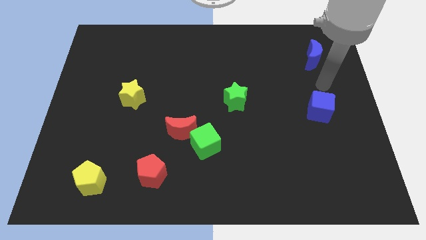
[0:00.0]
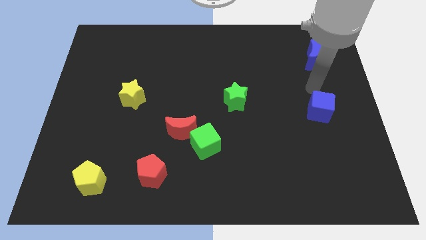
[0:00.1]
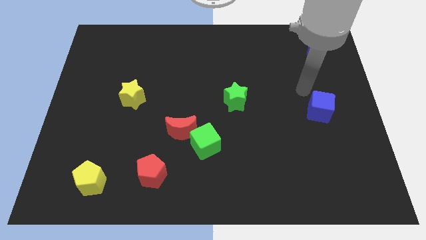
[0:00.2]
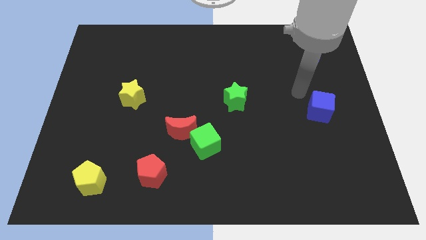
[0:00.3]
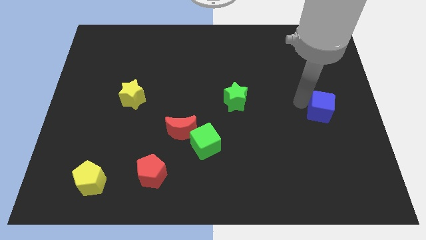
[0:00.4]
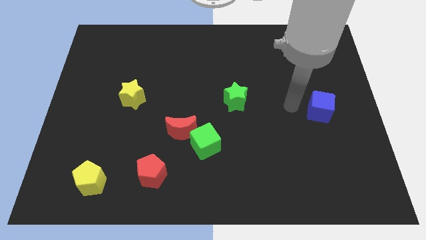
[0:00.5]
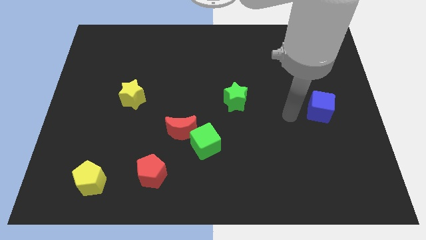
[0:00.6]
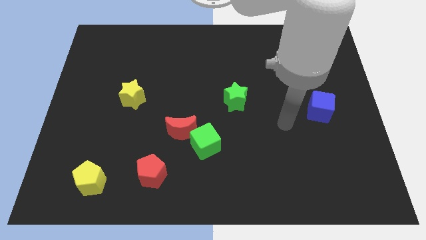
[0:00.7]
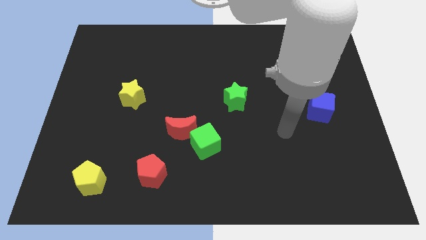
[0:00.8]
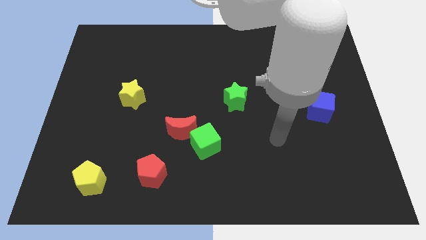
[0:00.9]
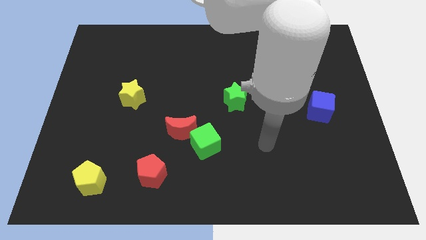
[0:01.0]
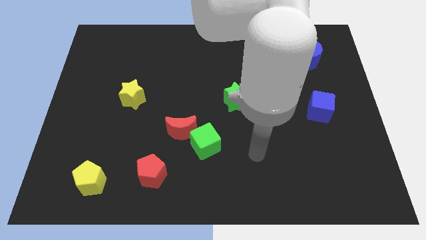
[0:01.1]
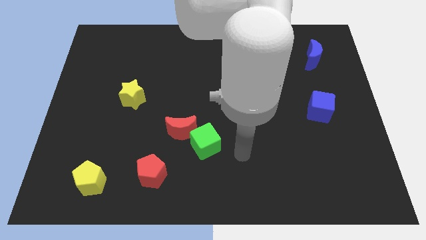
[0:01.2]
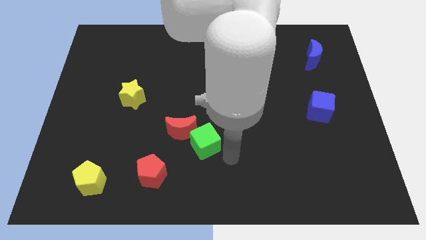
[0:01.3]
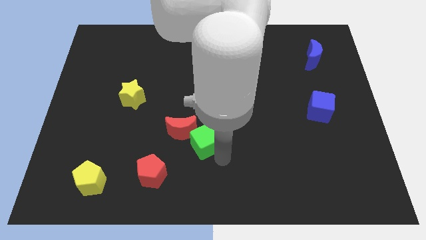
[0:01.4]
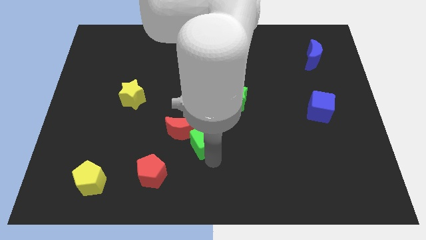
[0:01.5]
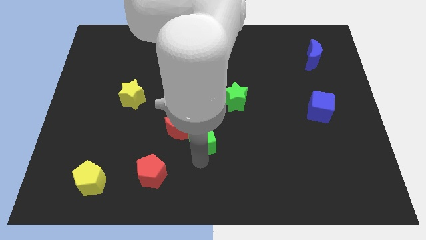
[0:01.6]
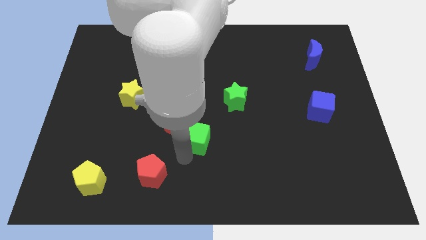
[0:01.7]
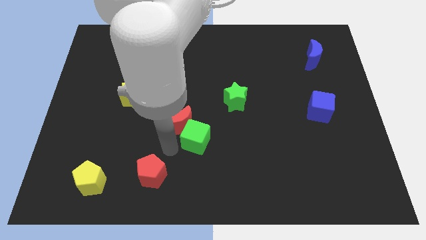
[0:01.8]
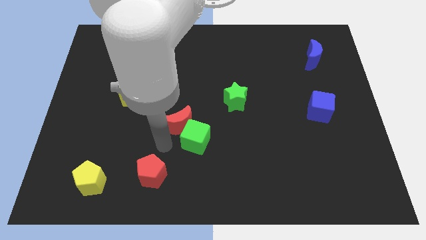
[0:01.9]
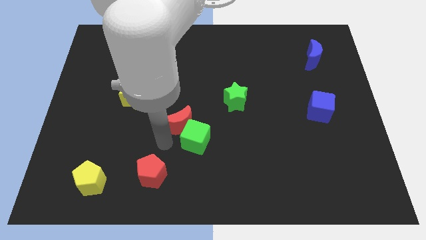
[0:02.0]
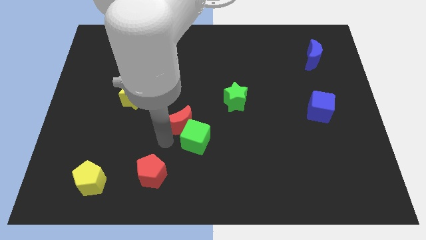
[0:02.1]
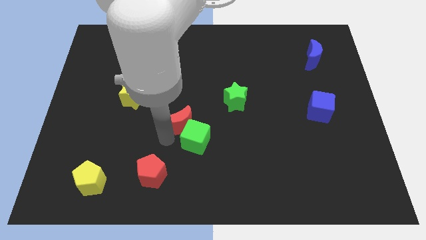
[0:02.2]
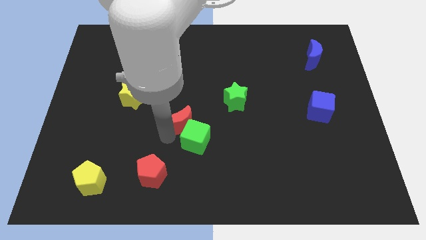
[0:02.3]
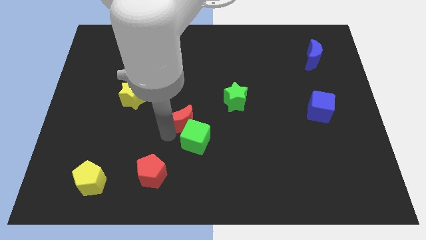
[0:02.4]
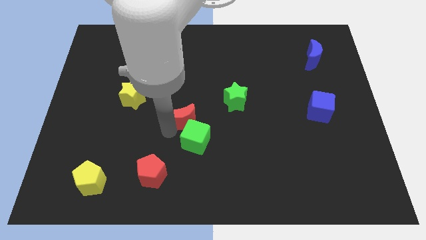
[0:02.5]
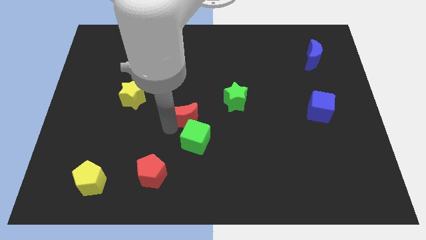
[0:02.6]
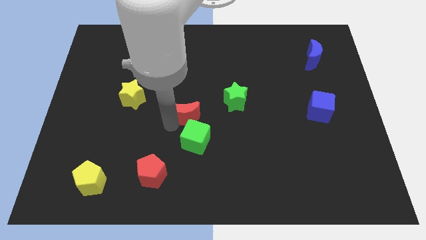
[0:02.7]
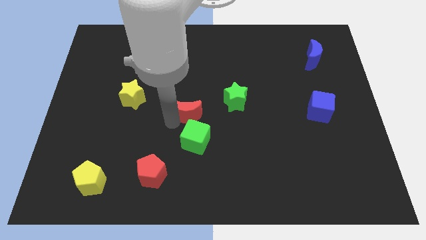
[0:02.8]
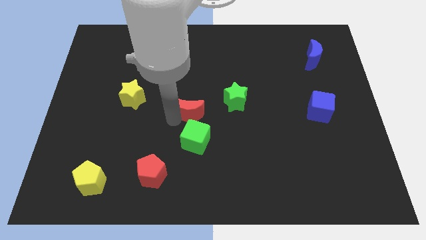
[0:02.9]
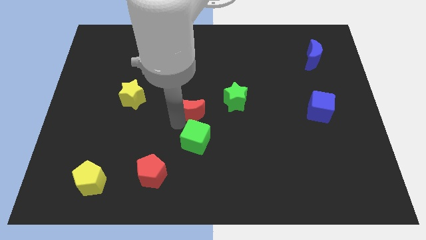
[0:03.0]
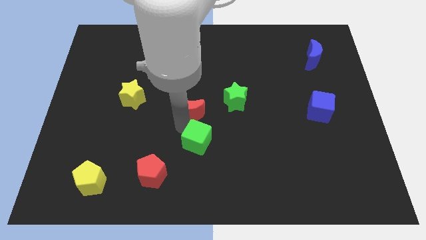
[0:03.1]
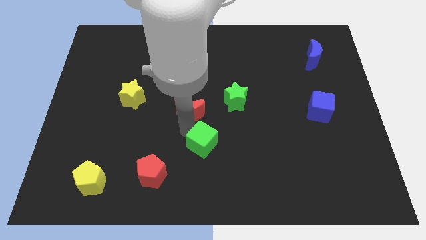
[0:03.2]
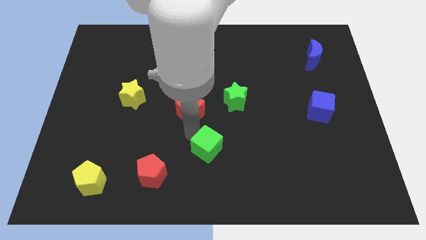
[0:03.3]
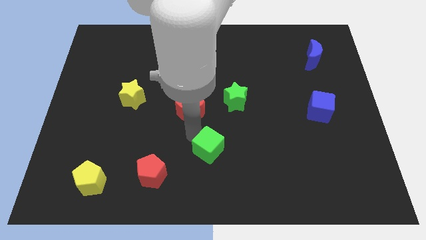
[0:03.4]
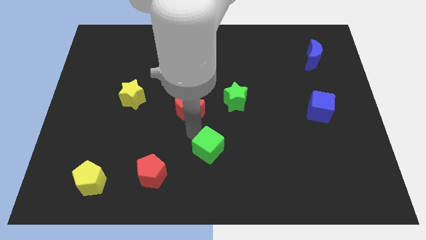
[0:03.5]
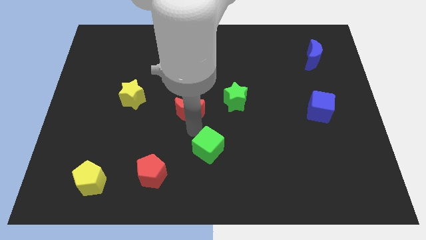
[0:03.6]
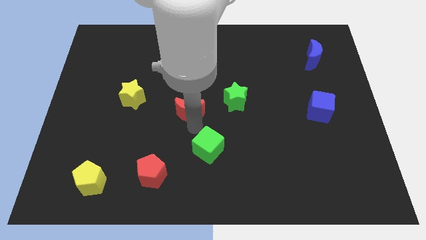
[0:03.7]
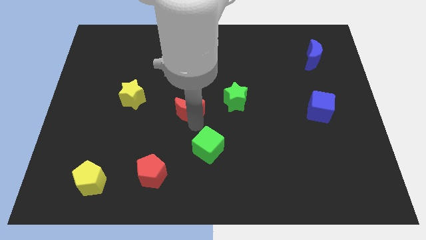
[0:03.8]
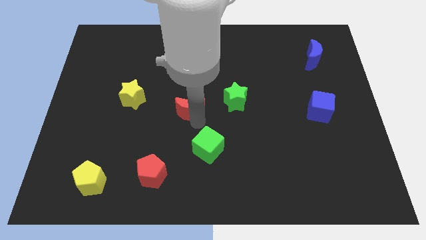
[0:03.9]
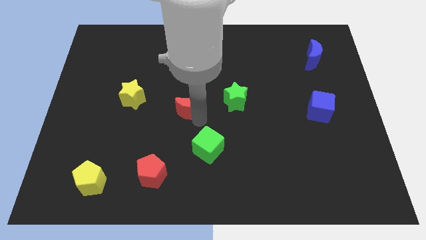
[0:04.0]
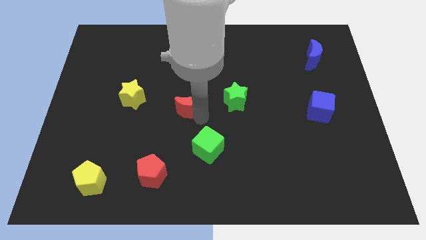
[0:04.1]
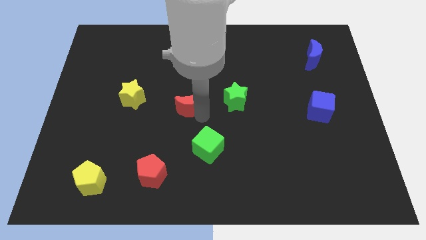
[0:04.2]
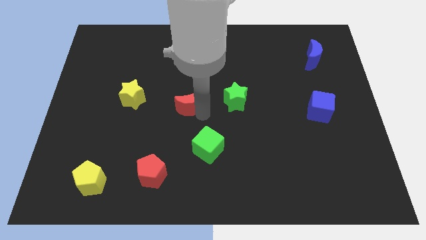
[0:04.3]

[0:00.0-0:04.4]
slide the red moon upwards a little

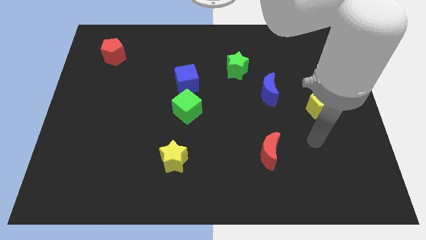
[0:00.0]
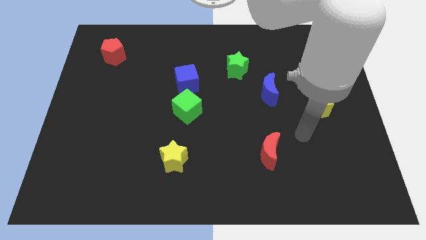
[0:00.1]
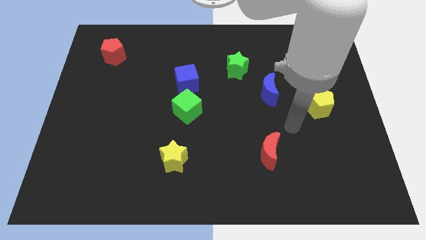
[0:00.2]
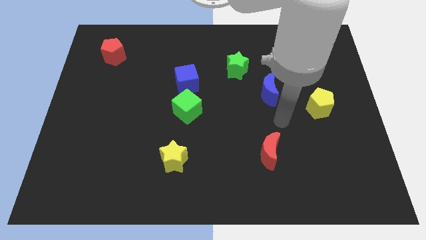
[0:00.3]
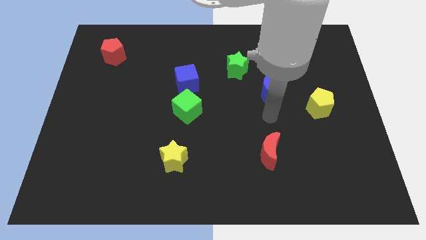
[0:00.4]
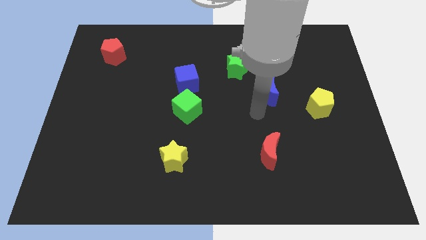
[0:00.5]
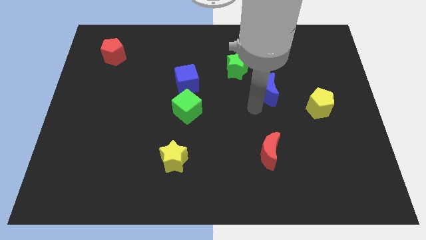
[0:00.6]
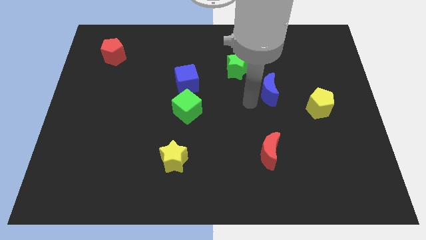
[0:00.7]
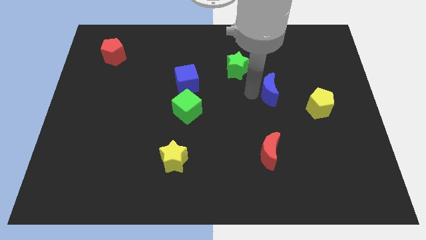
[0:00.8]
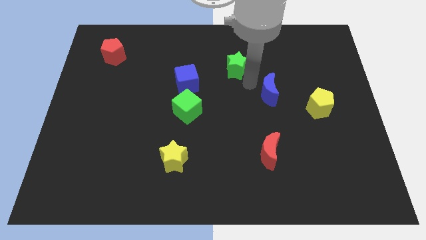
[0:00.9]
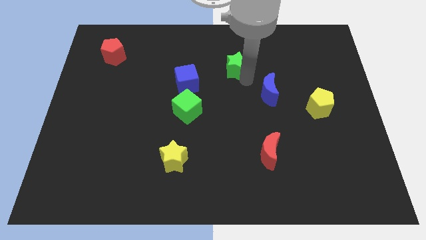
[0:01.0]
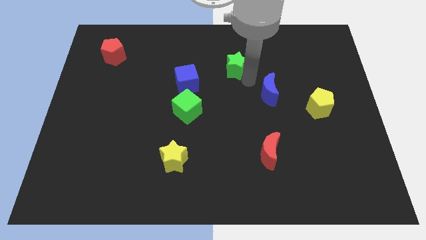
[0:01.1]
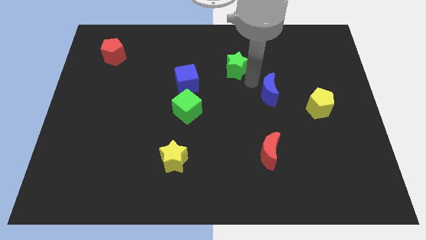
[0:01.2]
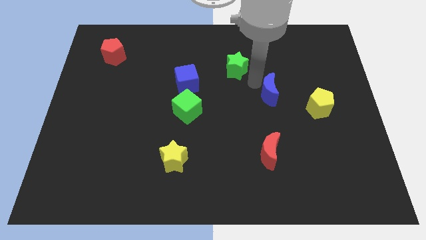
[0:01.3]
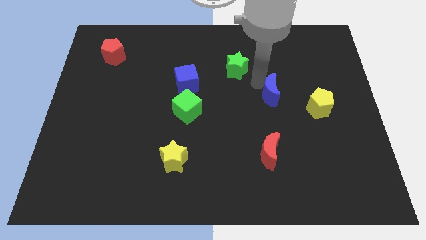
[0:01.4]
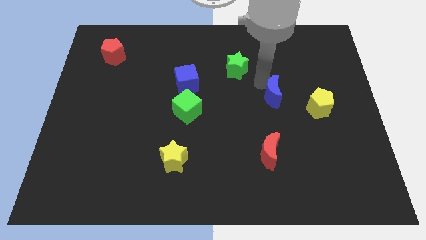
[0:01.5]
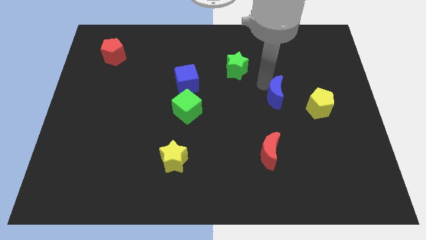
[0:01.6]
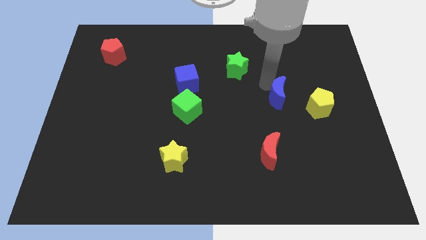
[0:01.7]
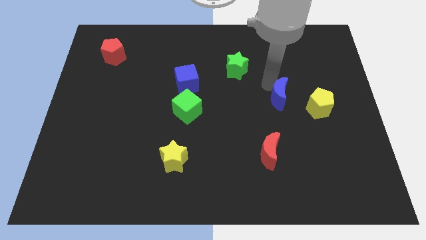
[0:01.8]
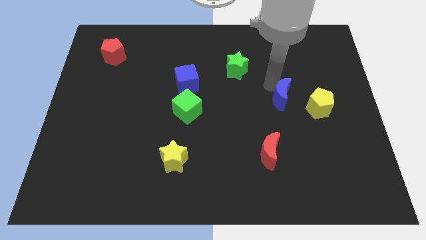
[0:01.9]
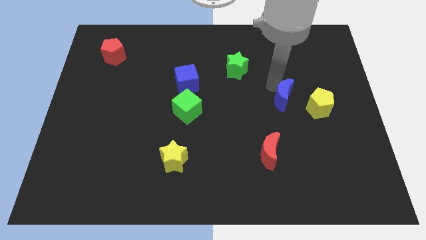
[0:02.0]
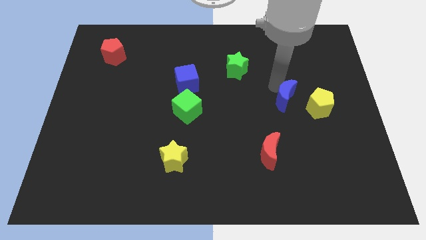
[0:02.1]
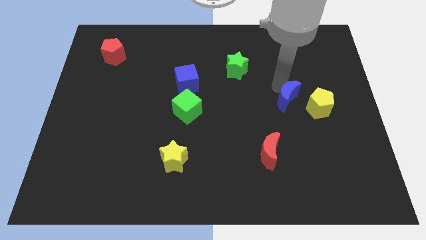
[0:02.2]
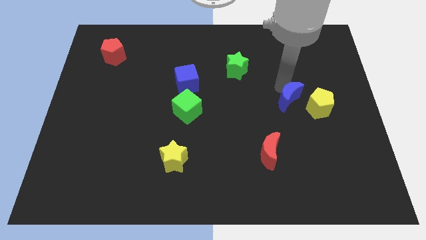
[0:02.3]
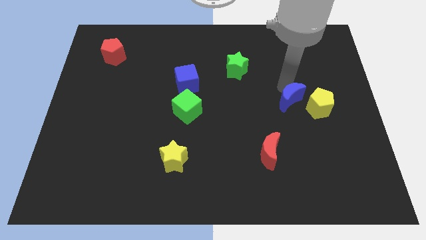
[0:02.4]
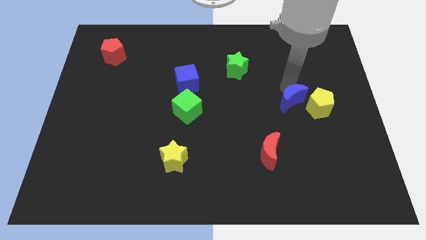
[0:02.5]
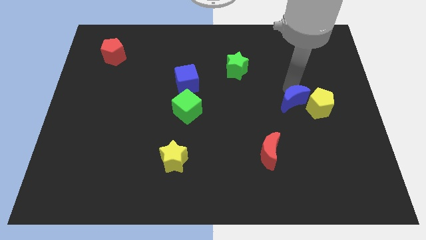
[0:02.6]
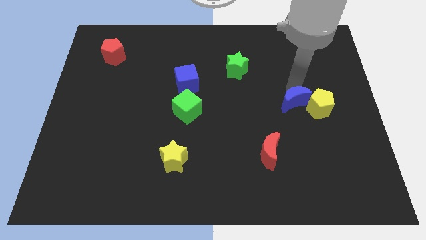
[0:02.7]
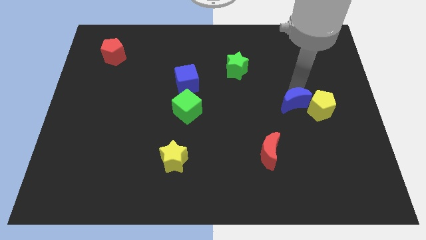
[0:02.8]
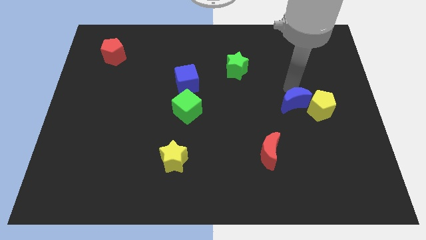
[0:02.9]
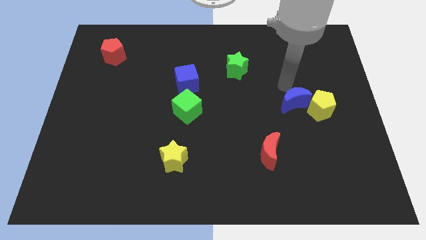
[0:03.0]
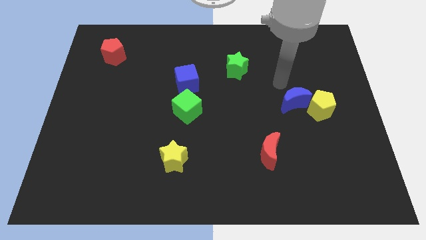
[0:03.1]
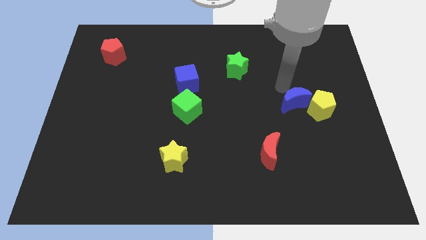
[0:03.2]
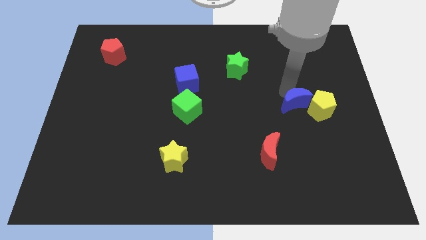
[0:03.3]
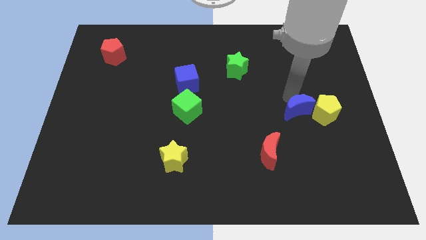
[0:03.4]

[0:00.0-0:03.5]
slightly push the blue moon diagonally down and to the right
